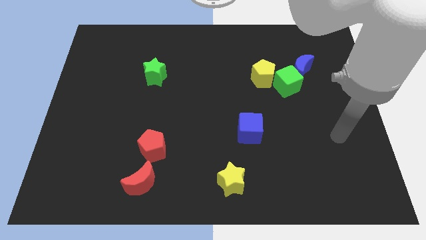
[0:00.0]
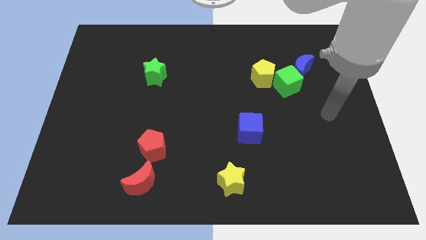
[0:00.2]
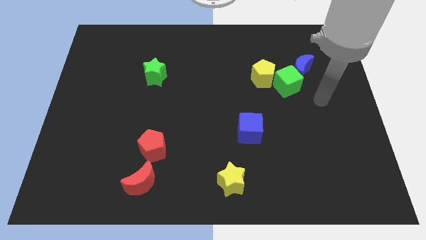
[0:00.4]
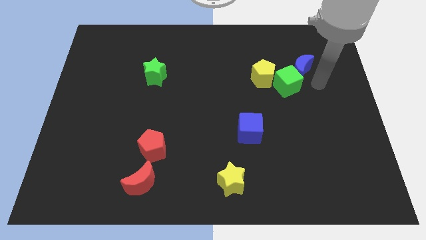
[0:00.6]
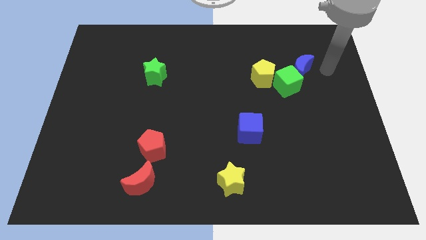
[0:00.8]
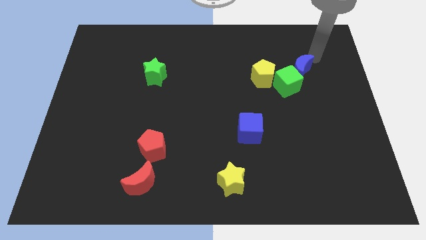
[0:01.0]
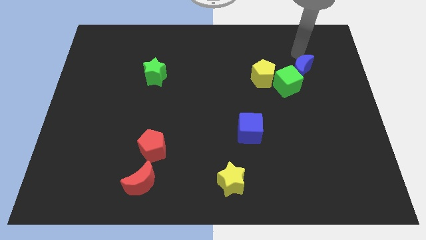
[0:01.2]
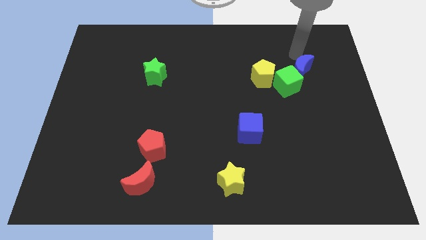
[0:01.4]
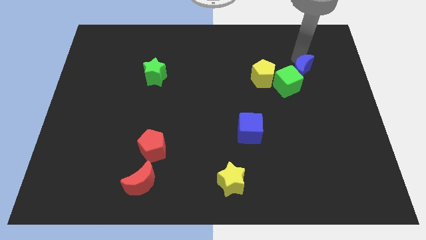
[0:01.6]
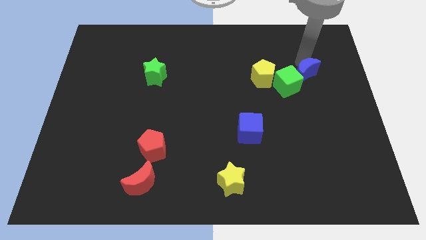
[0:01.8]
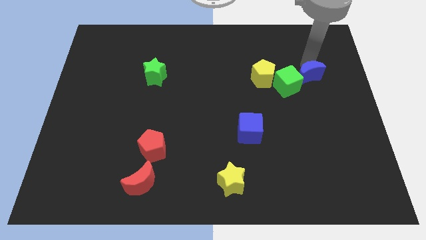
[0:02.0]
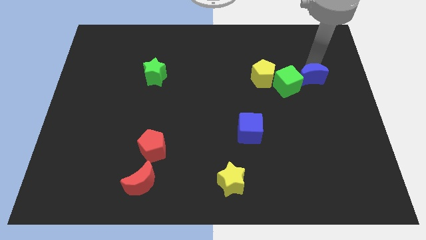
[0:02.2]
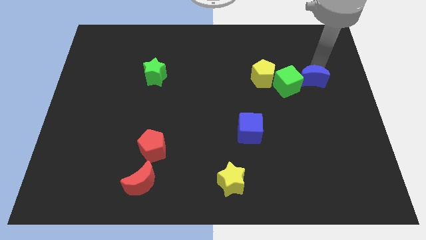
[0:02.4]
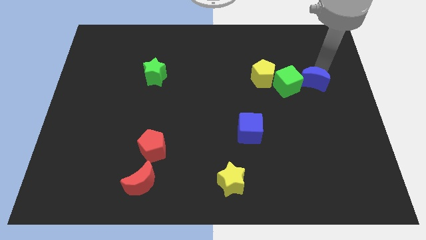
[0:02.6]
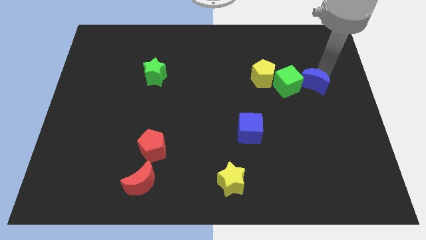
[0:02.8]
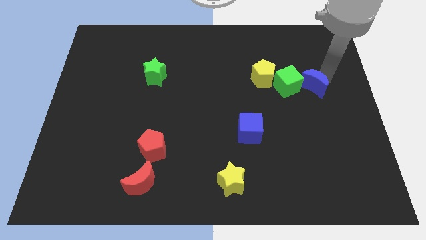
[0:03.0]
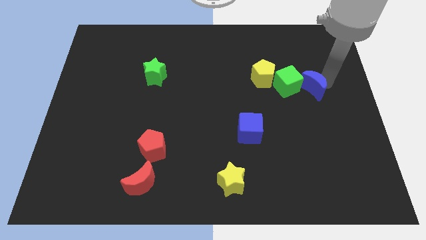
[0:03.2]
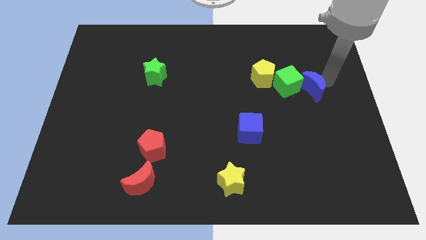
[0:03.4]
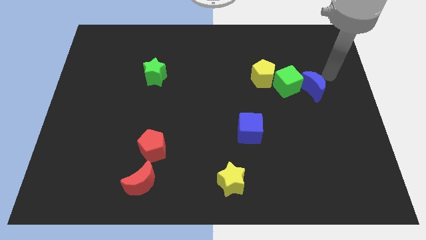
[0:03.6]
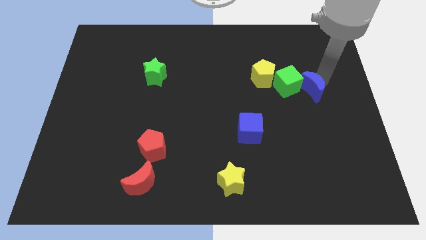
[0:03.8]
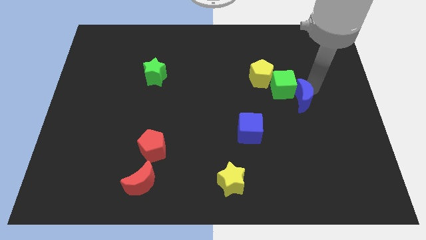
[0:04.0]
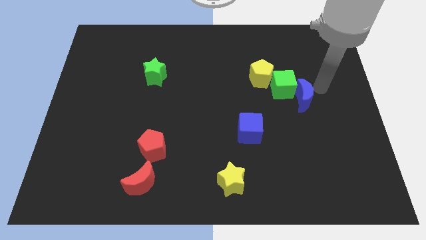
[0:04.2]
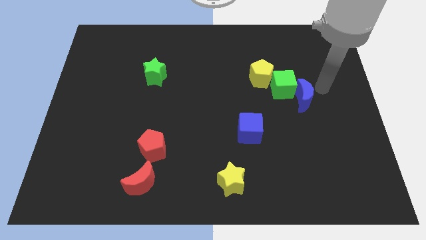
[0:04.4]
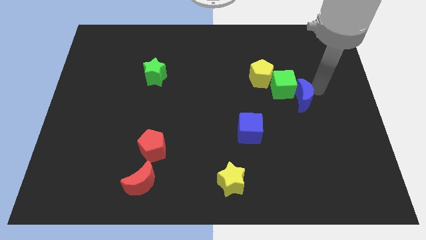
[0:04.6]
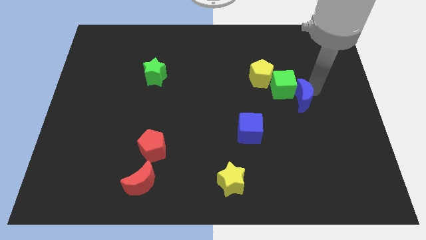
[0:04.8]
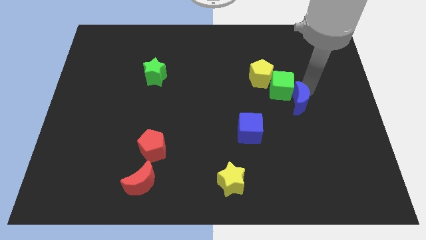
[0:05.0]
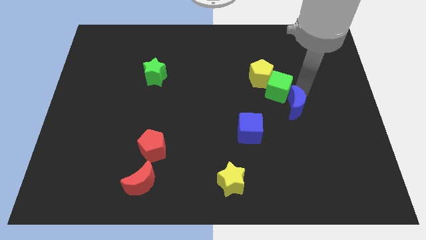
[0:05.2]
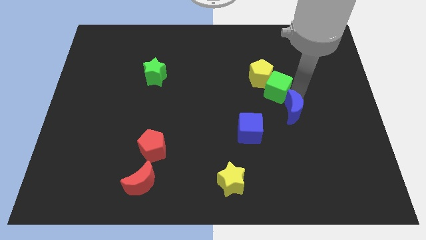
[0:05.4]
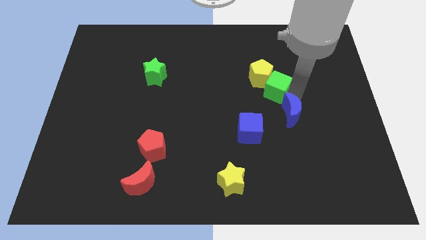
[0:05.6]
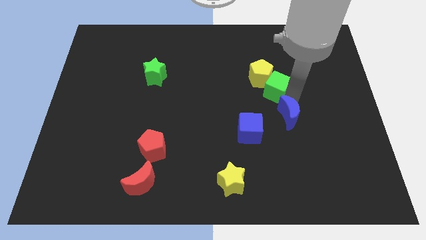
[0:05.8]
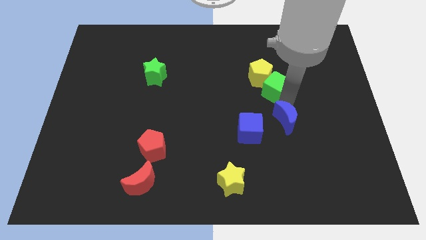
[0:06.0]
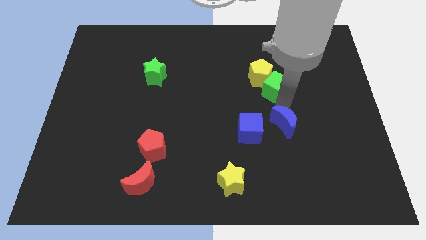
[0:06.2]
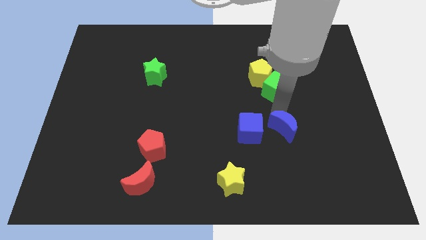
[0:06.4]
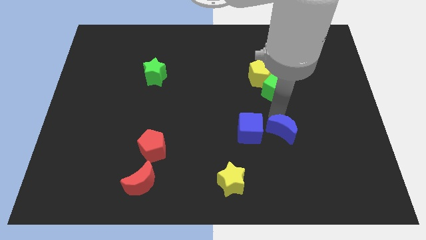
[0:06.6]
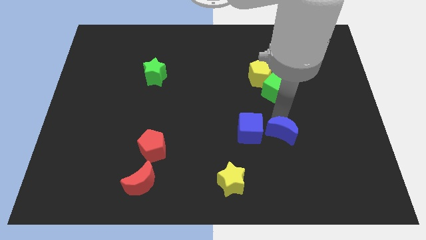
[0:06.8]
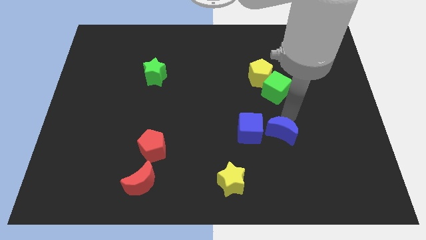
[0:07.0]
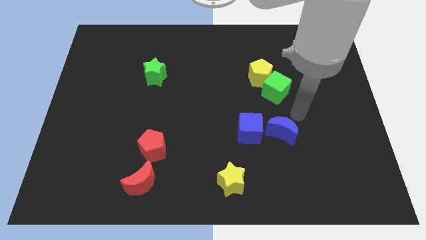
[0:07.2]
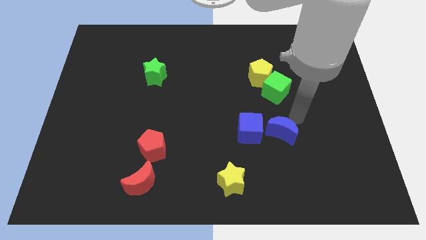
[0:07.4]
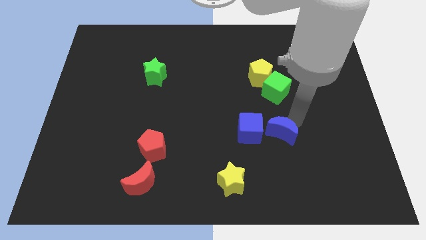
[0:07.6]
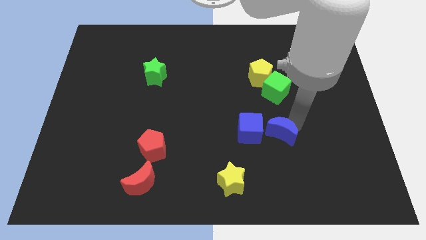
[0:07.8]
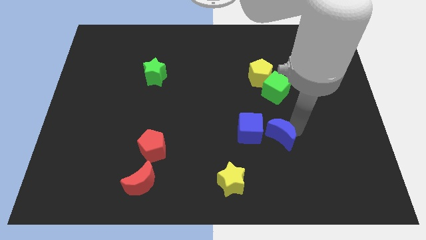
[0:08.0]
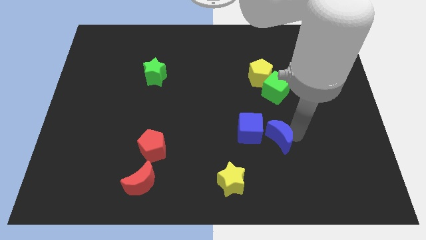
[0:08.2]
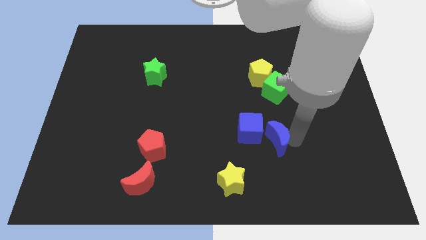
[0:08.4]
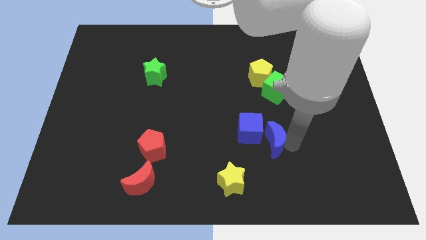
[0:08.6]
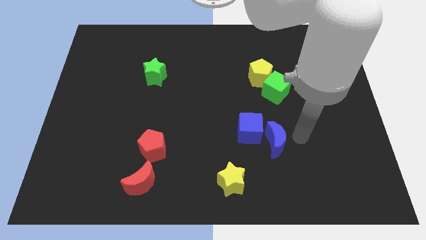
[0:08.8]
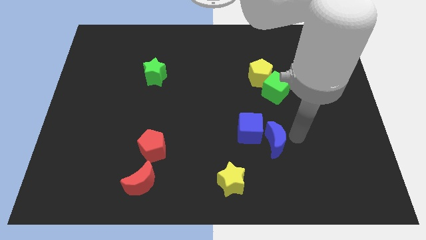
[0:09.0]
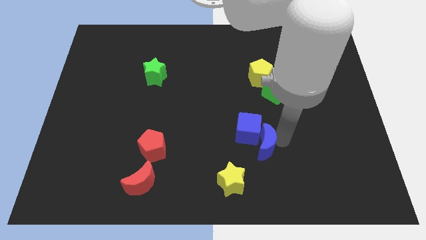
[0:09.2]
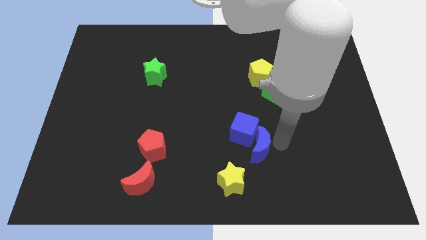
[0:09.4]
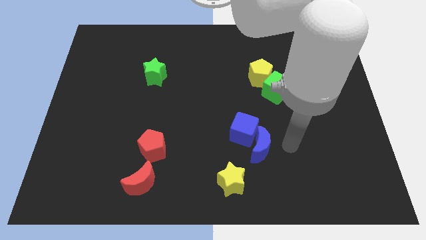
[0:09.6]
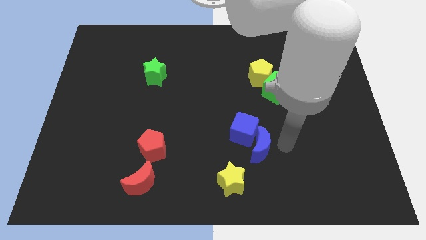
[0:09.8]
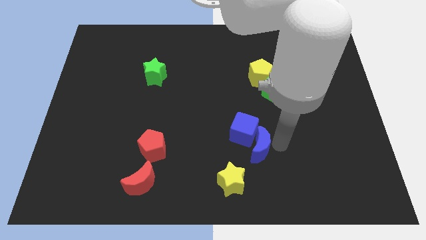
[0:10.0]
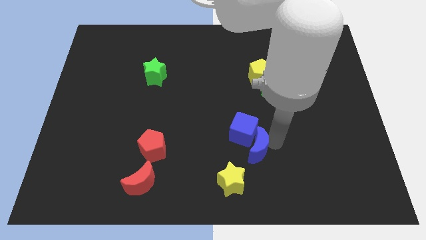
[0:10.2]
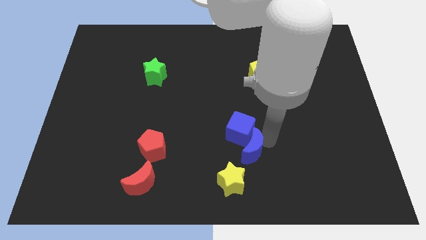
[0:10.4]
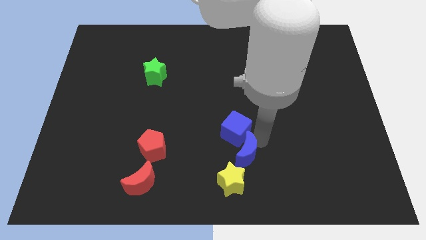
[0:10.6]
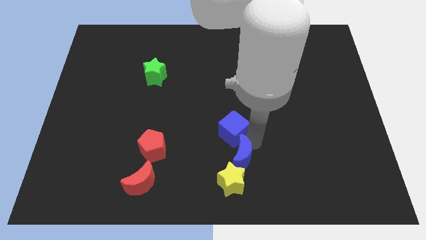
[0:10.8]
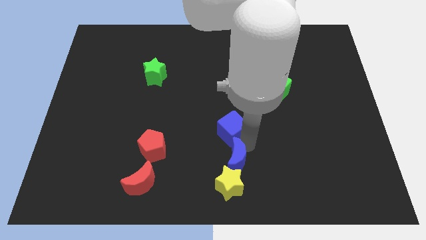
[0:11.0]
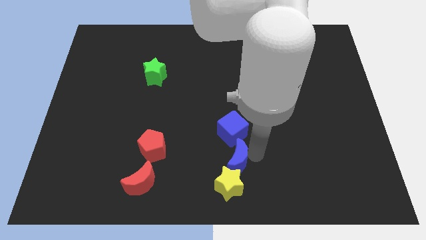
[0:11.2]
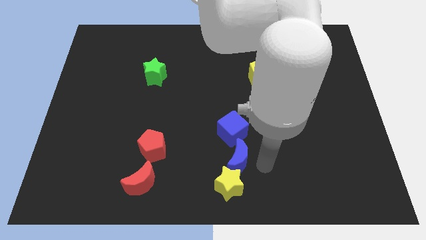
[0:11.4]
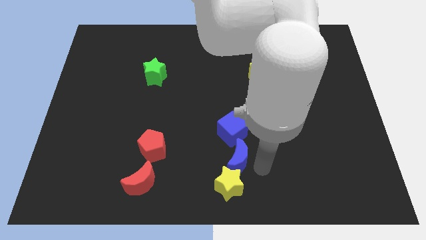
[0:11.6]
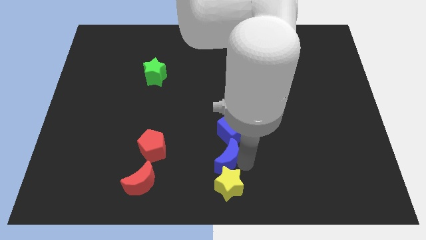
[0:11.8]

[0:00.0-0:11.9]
slide the blue moon to the bottom left side of the blue cube

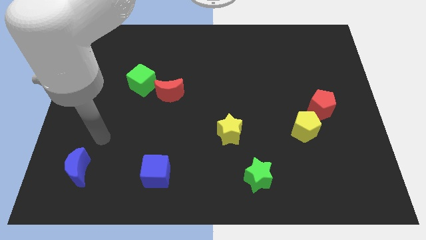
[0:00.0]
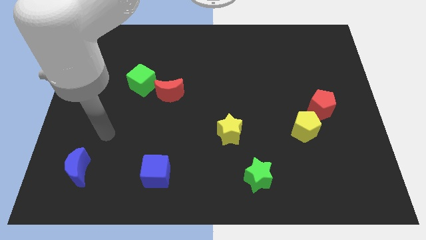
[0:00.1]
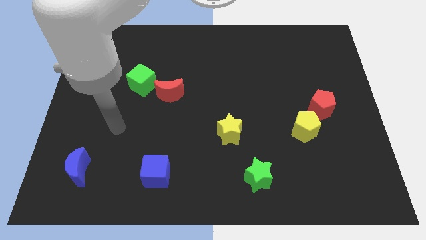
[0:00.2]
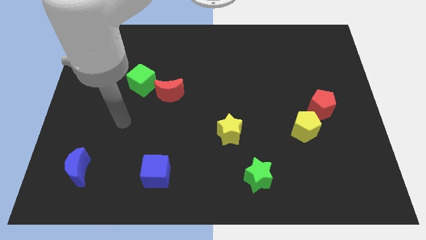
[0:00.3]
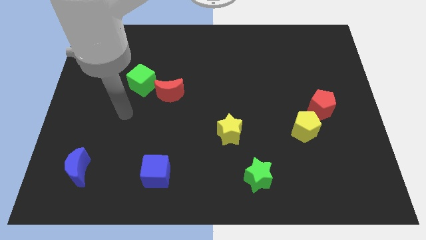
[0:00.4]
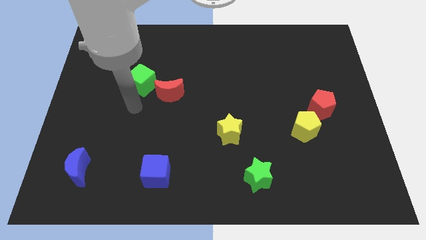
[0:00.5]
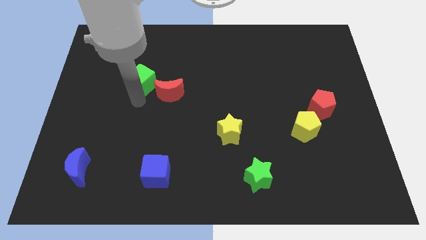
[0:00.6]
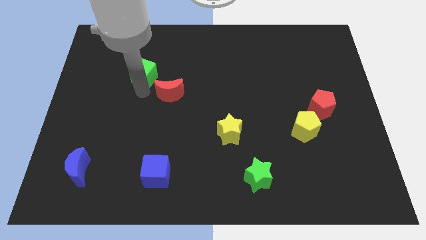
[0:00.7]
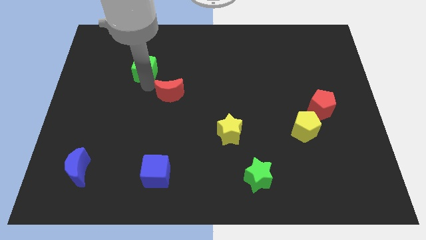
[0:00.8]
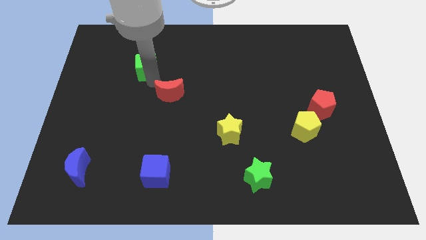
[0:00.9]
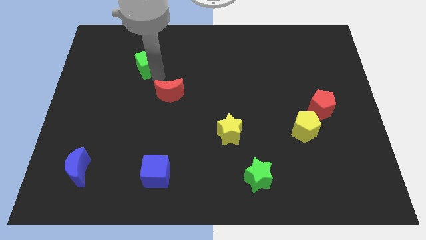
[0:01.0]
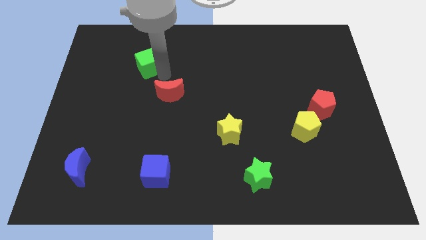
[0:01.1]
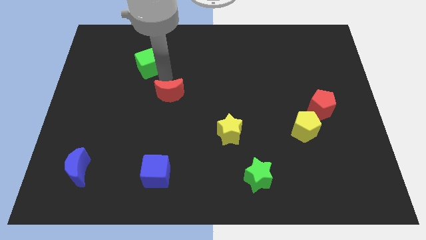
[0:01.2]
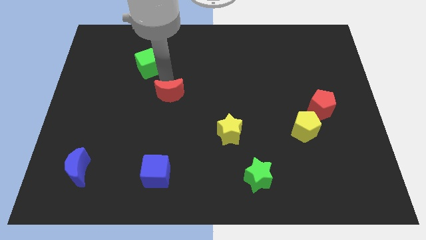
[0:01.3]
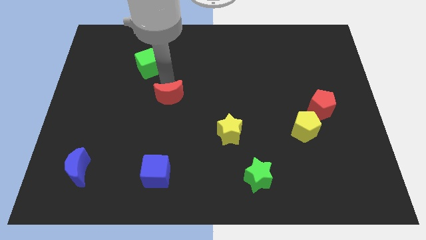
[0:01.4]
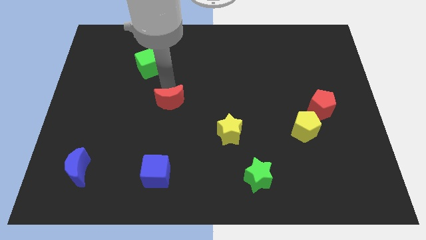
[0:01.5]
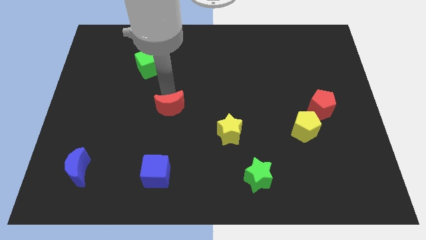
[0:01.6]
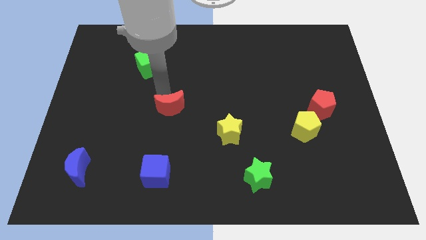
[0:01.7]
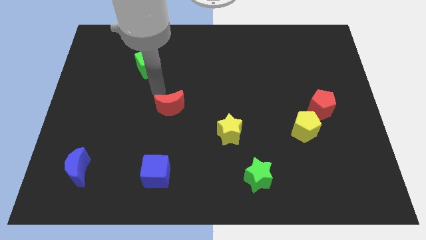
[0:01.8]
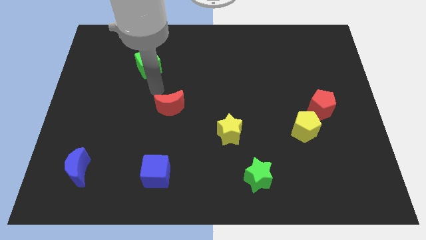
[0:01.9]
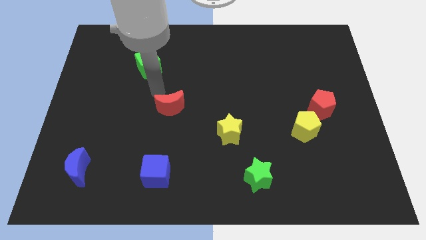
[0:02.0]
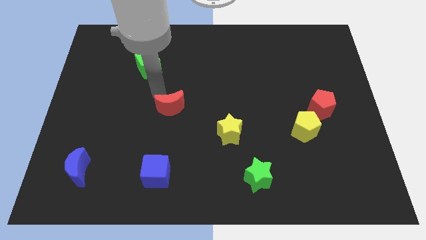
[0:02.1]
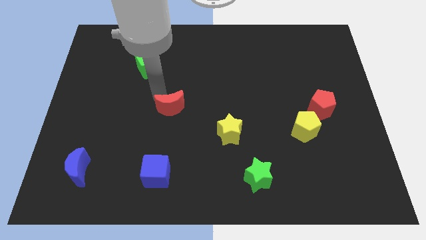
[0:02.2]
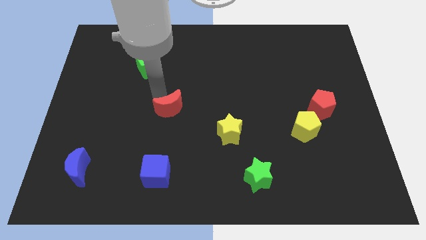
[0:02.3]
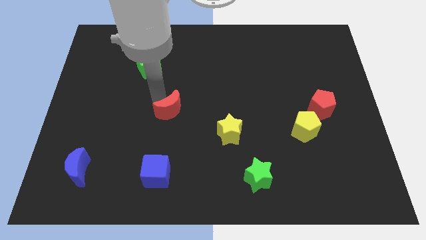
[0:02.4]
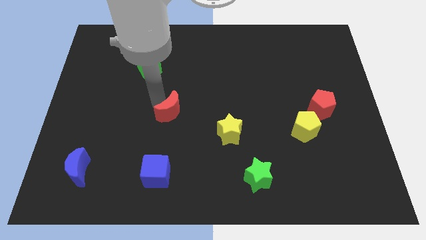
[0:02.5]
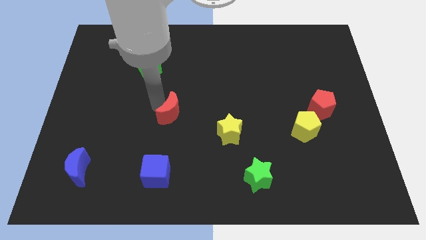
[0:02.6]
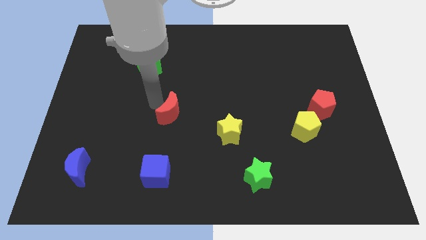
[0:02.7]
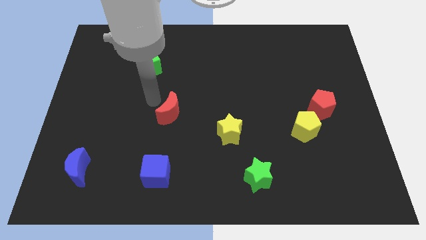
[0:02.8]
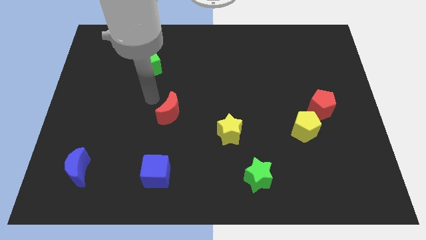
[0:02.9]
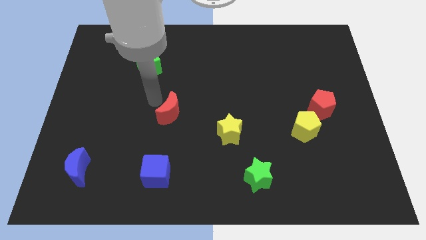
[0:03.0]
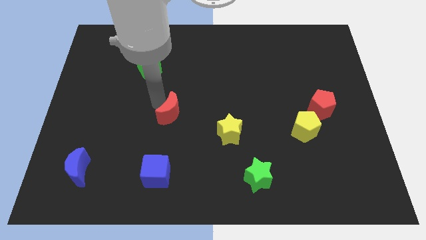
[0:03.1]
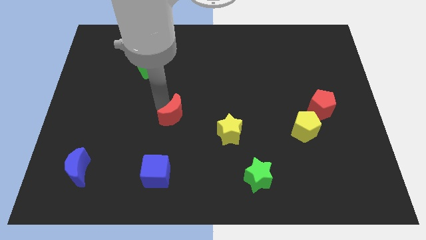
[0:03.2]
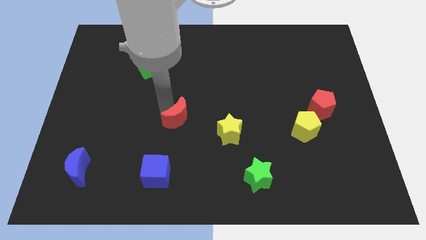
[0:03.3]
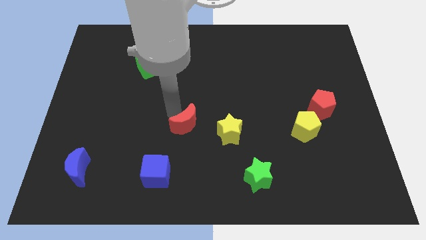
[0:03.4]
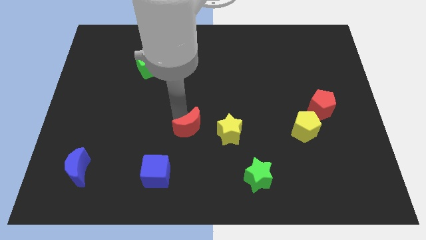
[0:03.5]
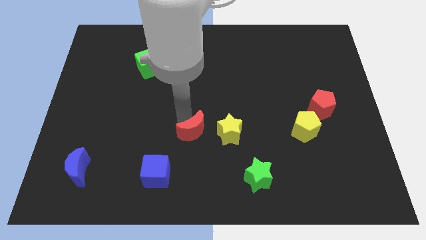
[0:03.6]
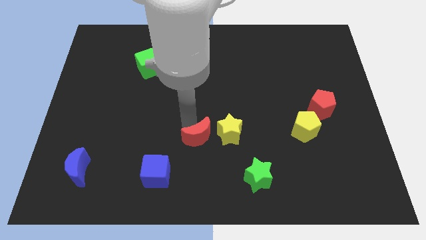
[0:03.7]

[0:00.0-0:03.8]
put the red moon to the bottom left side of the yellow star
